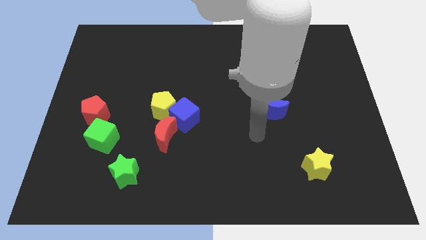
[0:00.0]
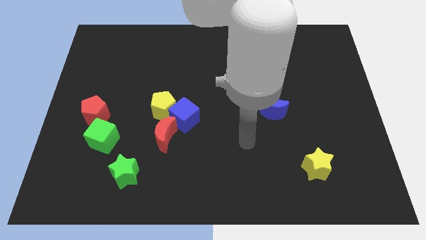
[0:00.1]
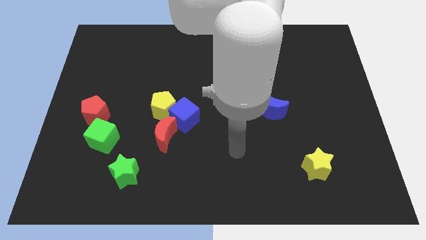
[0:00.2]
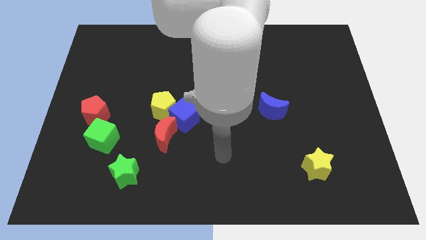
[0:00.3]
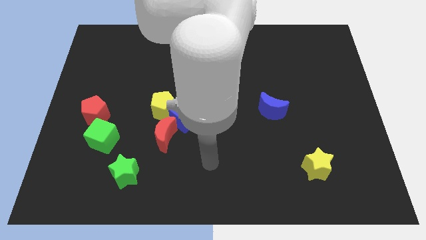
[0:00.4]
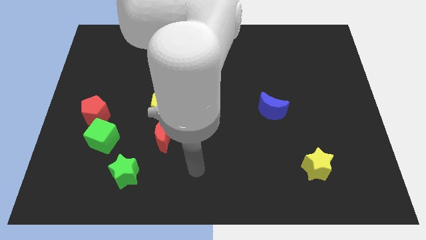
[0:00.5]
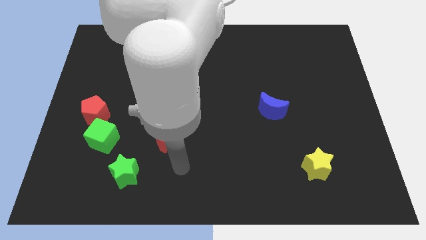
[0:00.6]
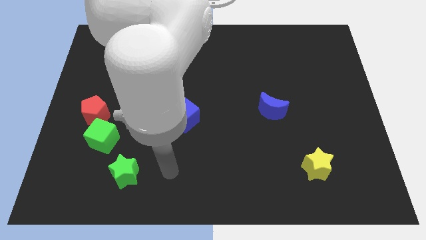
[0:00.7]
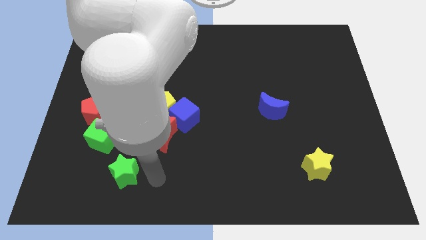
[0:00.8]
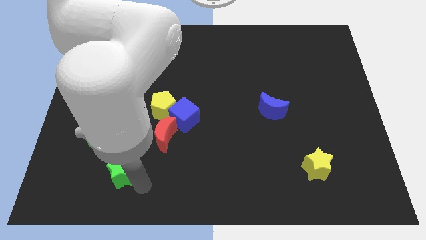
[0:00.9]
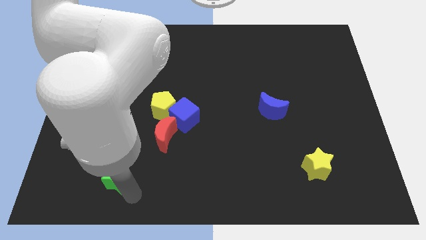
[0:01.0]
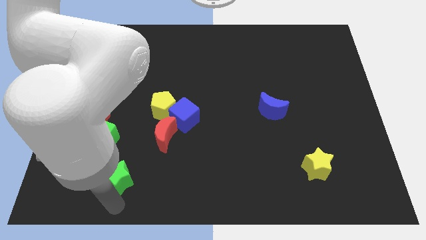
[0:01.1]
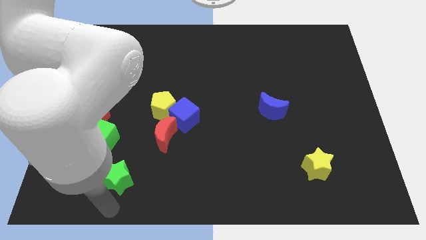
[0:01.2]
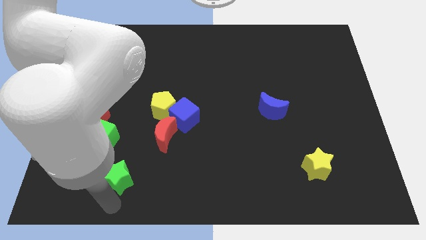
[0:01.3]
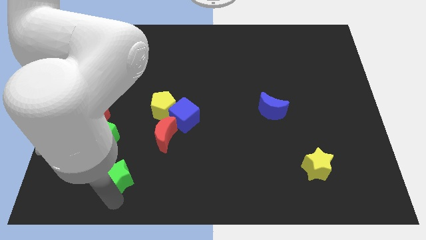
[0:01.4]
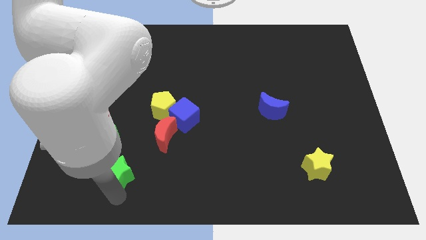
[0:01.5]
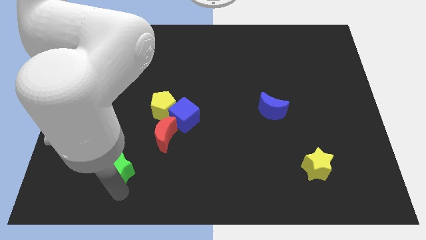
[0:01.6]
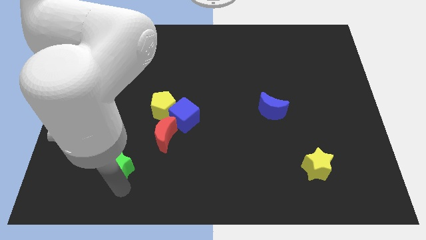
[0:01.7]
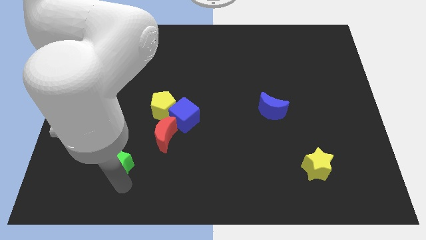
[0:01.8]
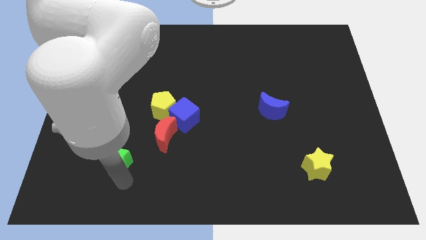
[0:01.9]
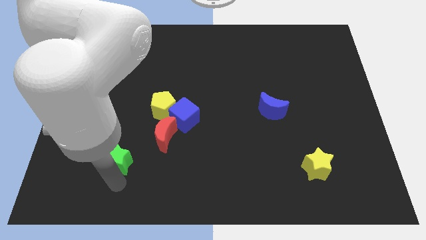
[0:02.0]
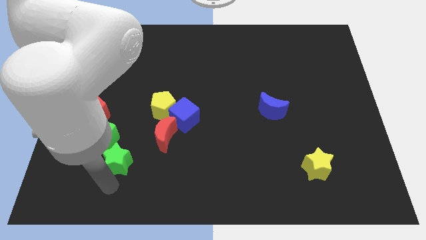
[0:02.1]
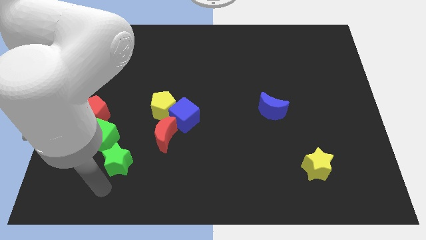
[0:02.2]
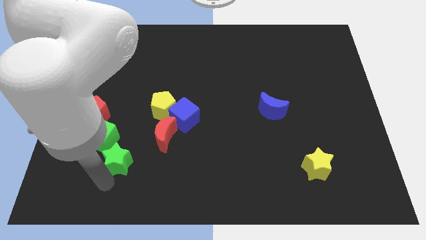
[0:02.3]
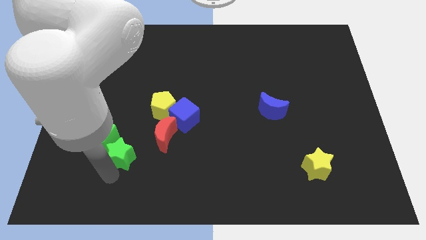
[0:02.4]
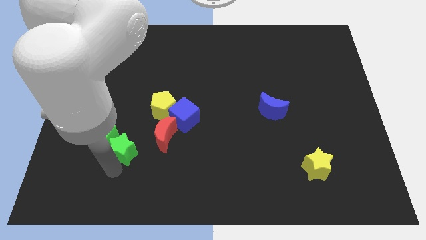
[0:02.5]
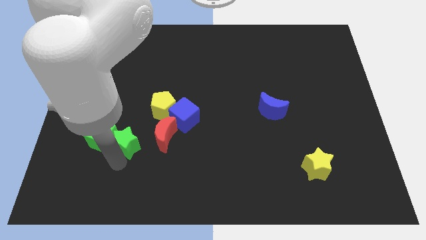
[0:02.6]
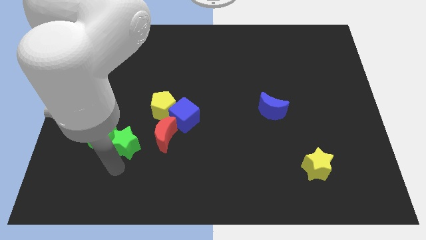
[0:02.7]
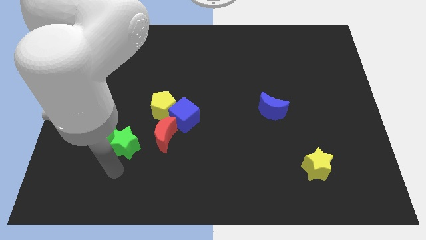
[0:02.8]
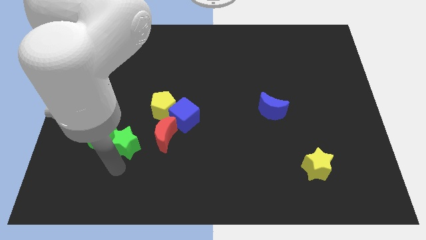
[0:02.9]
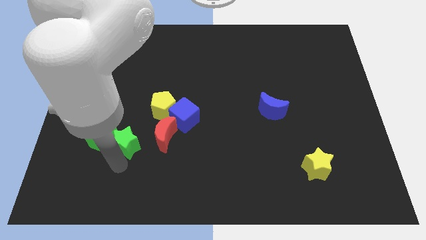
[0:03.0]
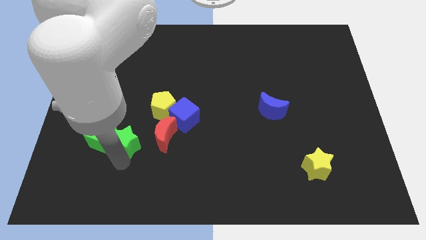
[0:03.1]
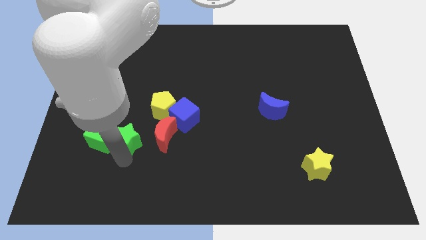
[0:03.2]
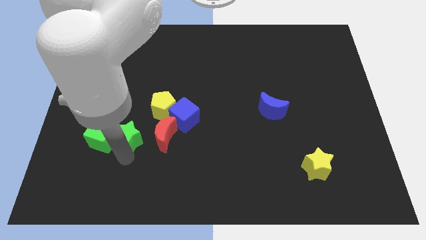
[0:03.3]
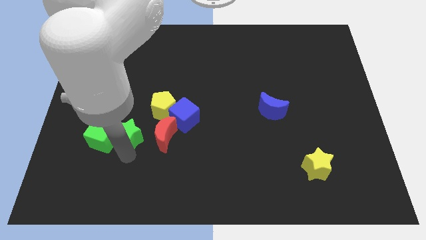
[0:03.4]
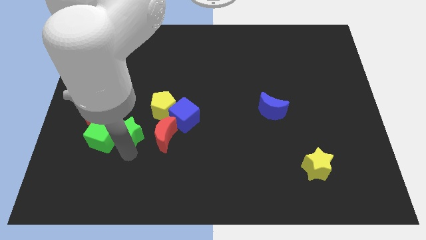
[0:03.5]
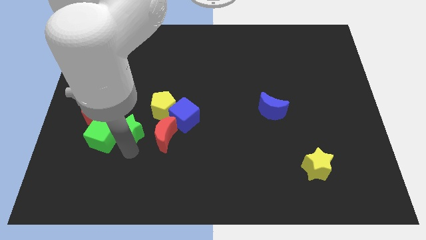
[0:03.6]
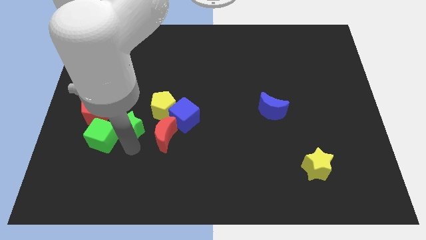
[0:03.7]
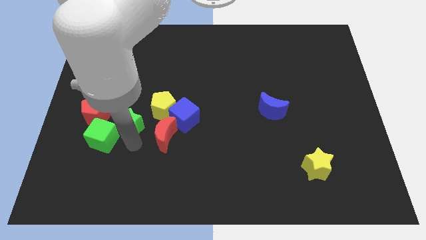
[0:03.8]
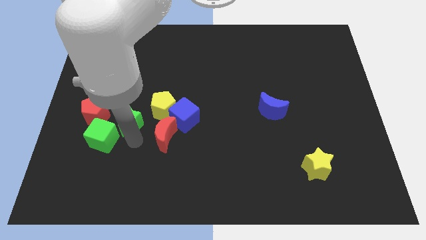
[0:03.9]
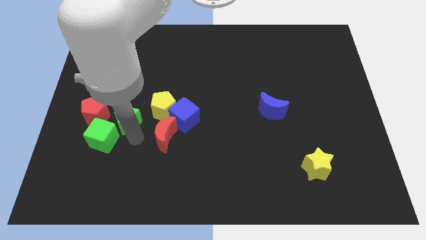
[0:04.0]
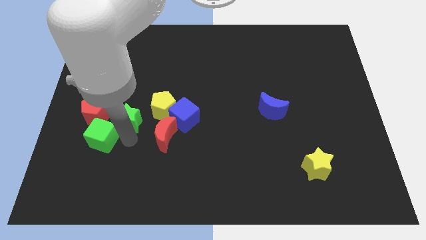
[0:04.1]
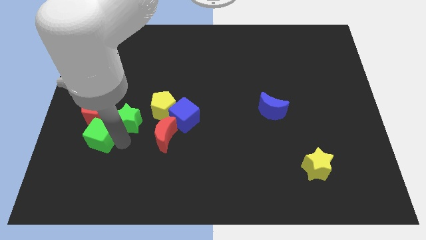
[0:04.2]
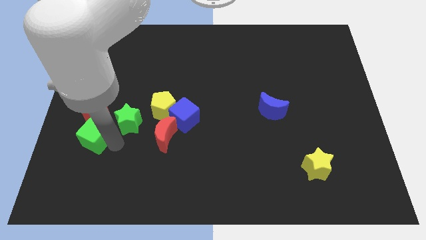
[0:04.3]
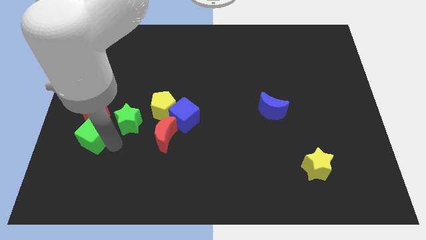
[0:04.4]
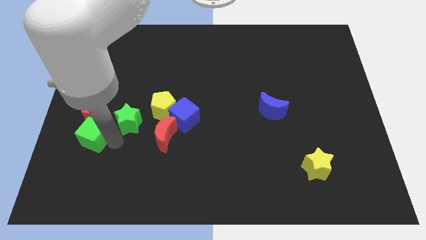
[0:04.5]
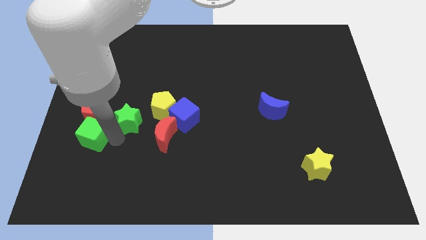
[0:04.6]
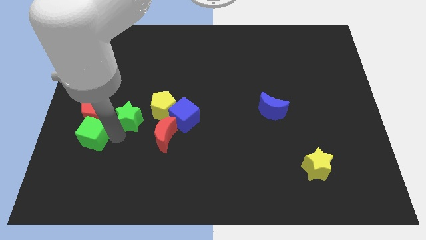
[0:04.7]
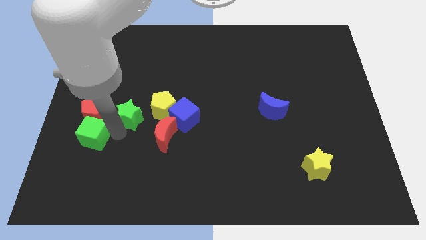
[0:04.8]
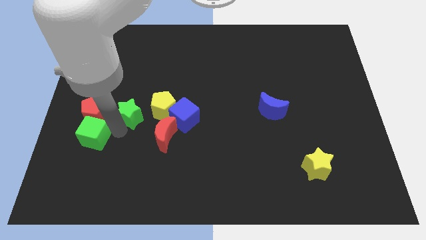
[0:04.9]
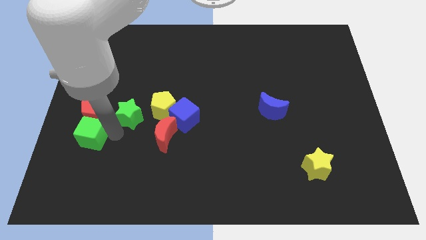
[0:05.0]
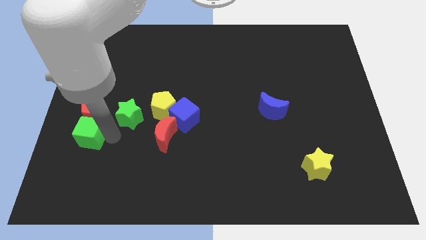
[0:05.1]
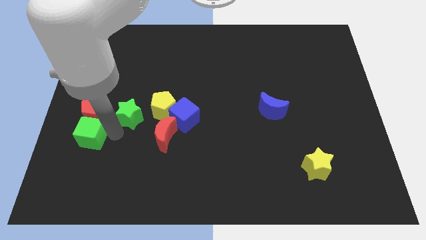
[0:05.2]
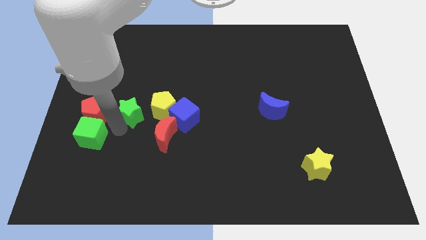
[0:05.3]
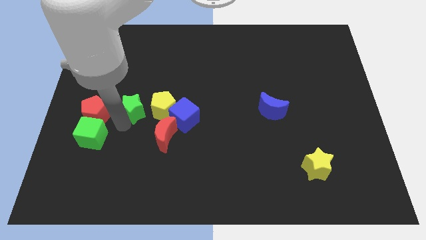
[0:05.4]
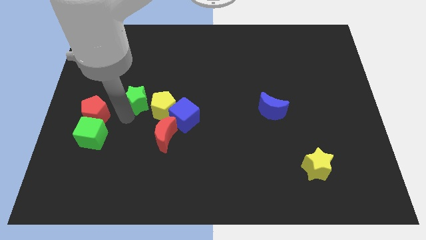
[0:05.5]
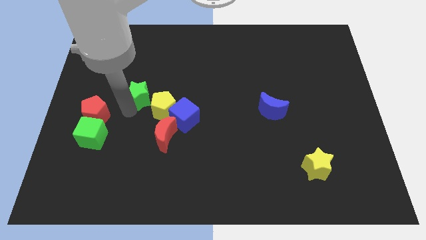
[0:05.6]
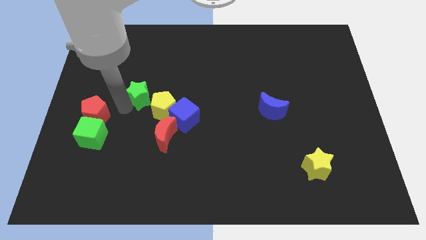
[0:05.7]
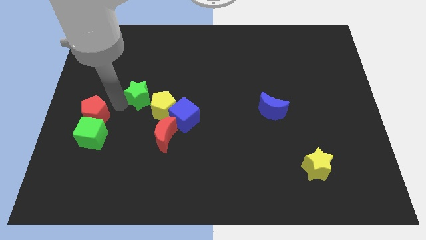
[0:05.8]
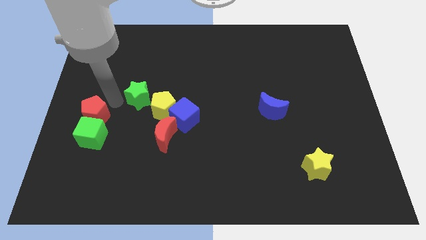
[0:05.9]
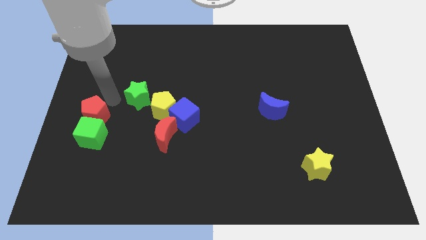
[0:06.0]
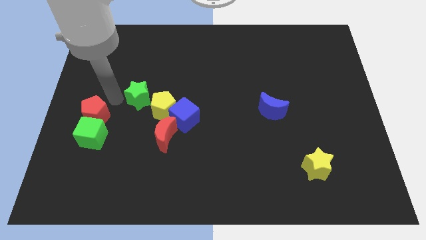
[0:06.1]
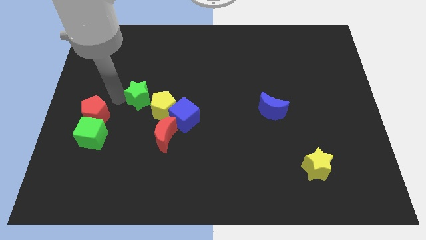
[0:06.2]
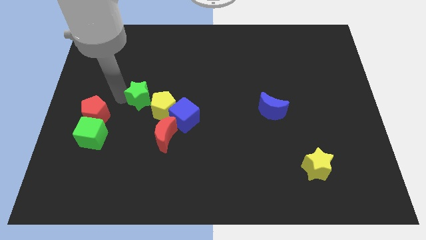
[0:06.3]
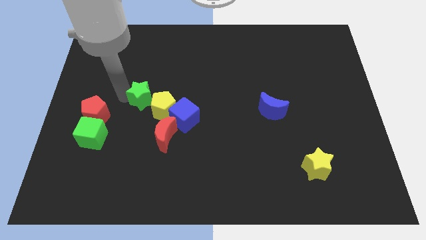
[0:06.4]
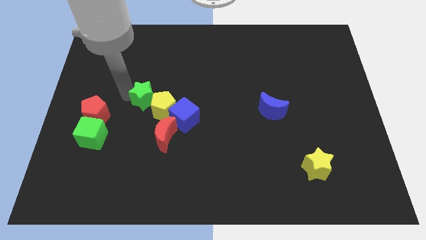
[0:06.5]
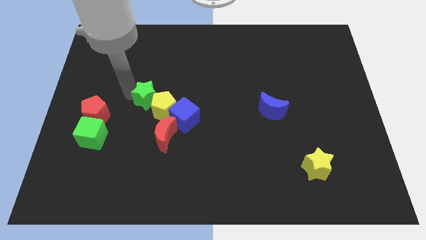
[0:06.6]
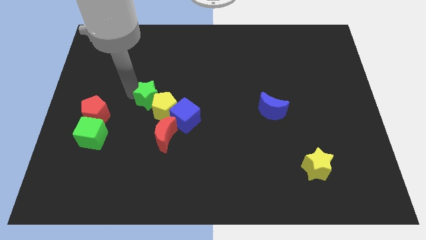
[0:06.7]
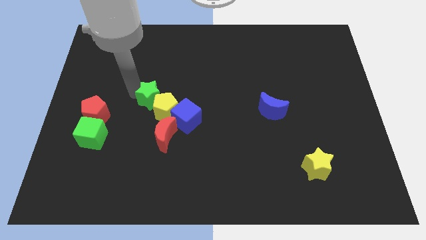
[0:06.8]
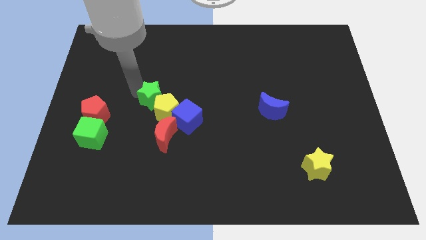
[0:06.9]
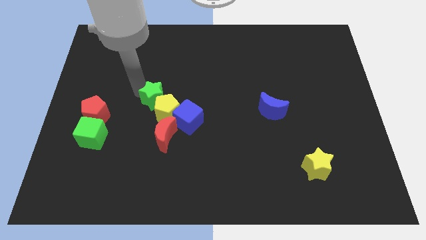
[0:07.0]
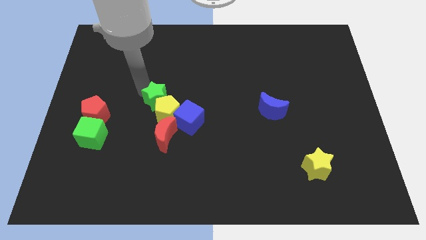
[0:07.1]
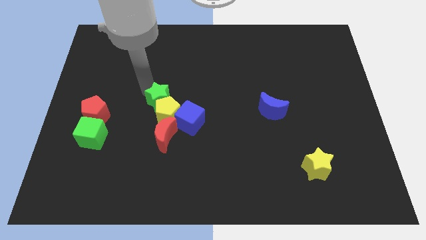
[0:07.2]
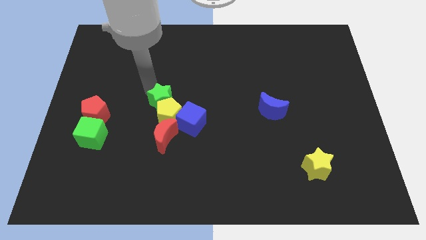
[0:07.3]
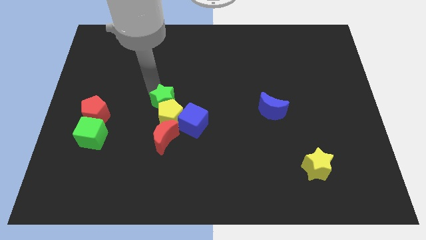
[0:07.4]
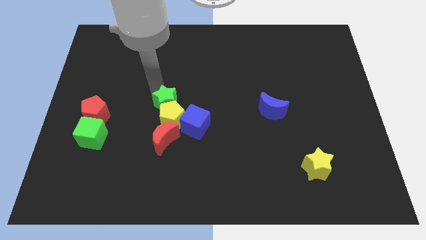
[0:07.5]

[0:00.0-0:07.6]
put the green star diagonally up and to the right of the yellow pentagon

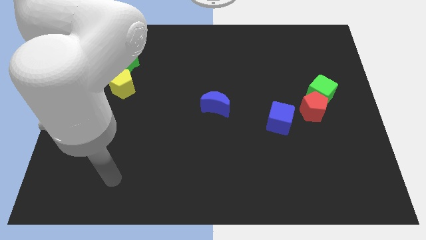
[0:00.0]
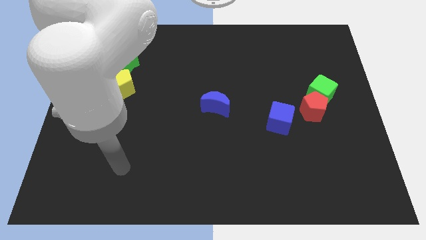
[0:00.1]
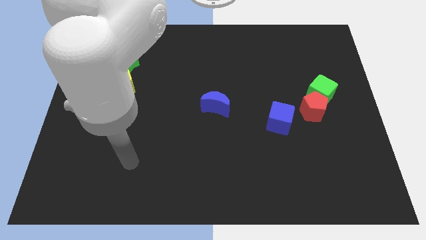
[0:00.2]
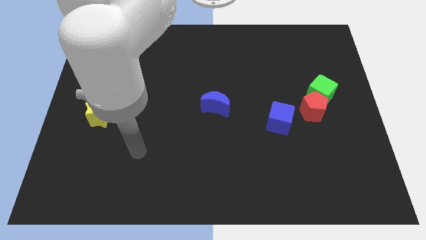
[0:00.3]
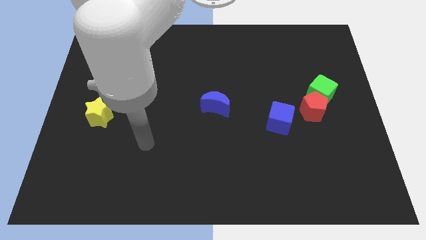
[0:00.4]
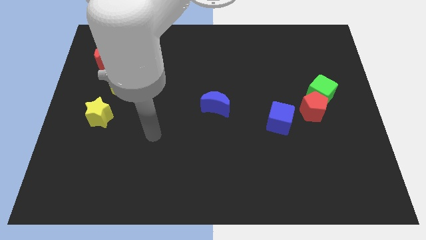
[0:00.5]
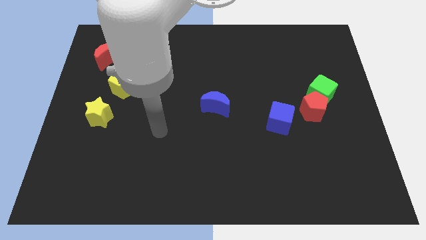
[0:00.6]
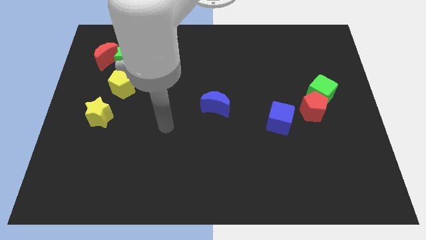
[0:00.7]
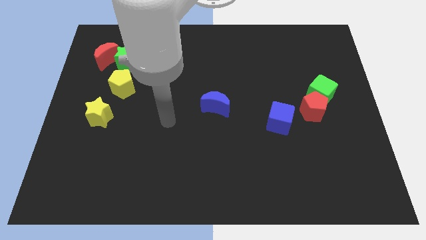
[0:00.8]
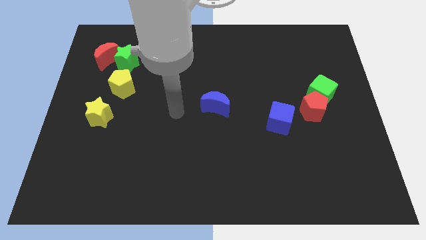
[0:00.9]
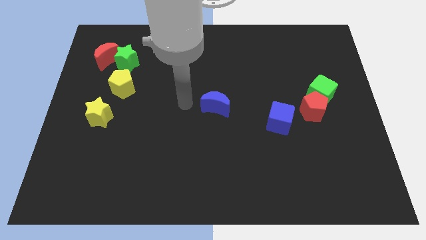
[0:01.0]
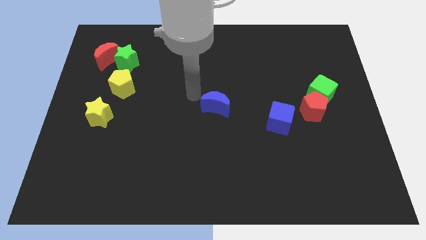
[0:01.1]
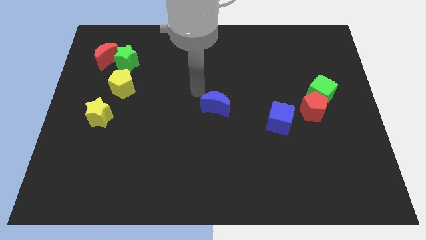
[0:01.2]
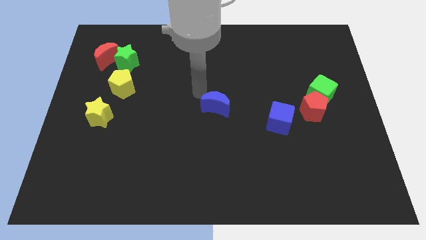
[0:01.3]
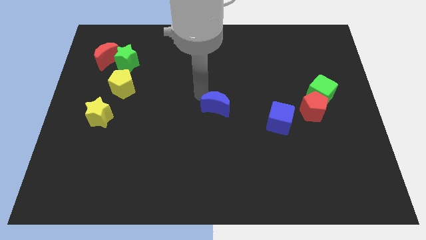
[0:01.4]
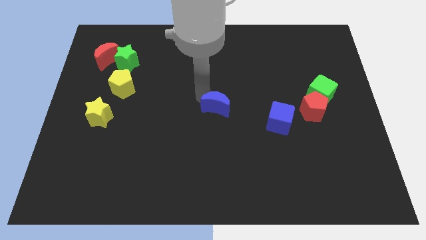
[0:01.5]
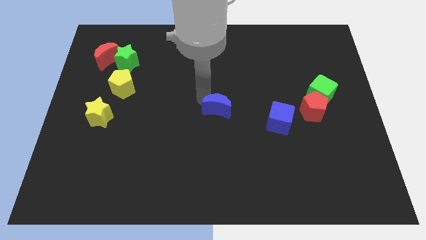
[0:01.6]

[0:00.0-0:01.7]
put the blue moon left of the blue cube
